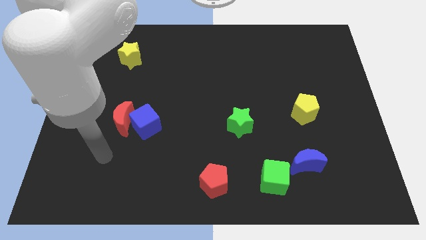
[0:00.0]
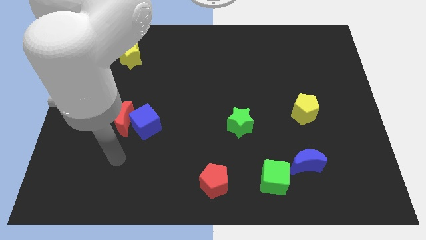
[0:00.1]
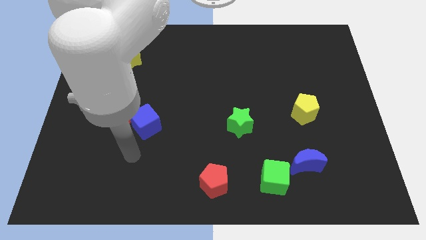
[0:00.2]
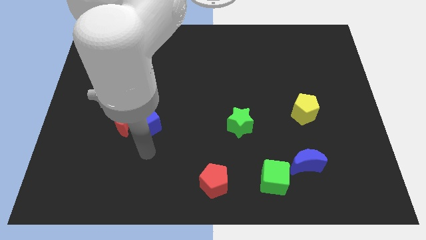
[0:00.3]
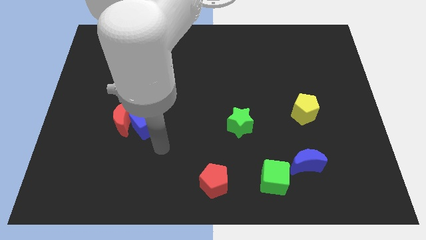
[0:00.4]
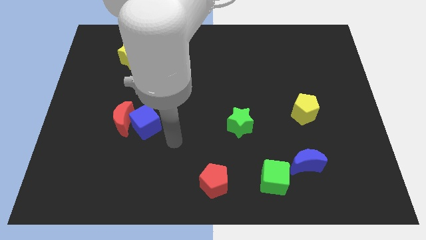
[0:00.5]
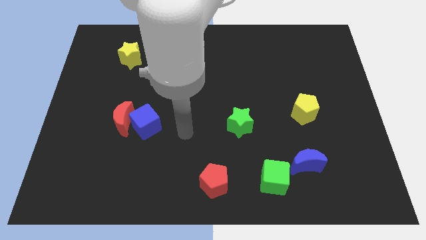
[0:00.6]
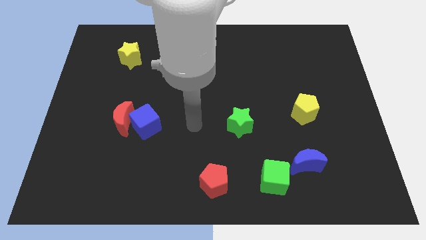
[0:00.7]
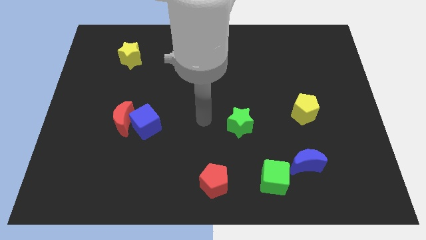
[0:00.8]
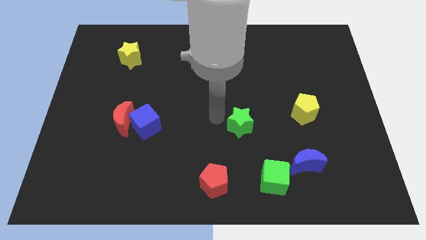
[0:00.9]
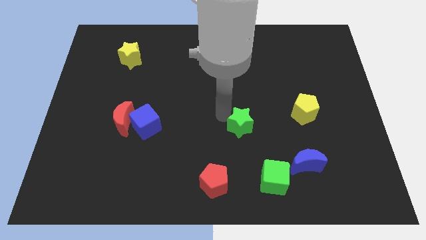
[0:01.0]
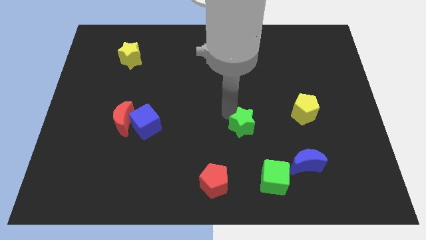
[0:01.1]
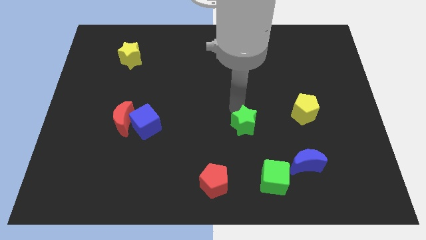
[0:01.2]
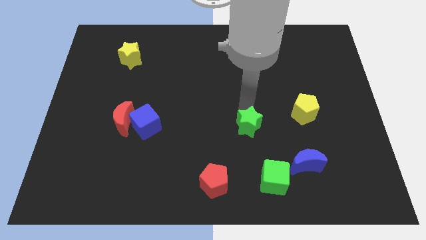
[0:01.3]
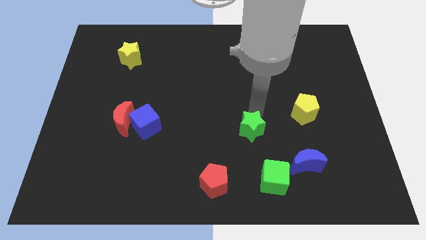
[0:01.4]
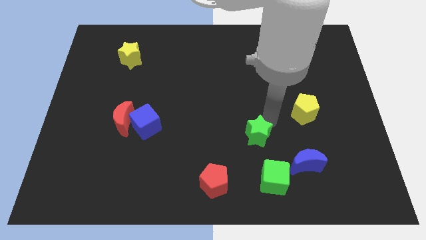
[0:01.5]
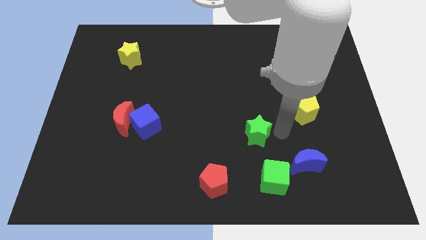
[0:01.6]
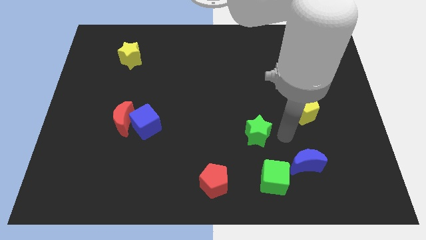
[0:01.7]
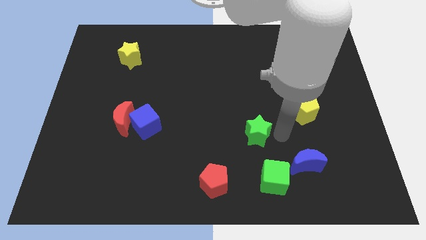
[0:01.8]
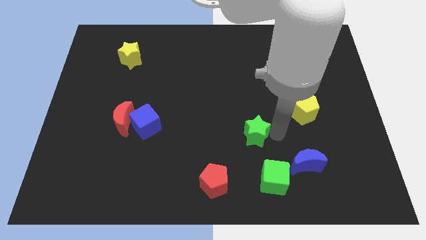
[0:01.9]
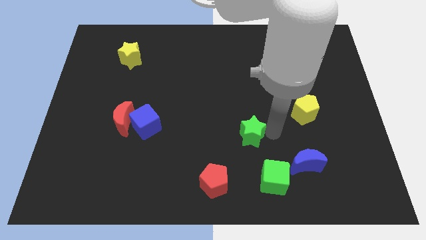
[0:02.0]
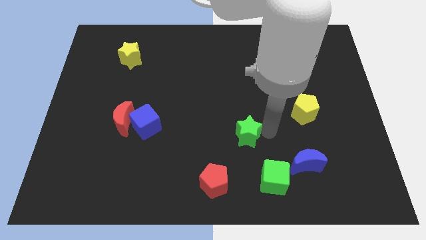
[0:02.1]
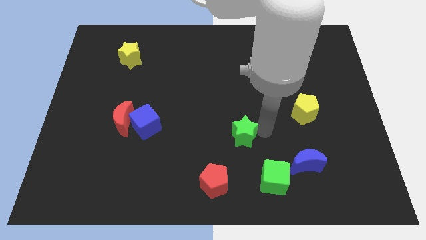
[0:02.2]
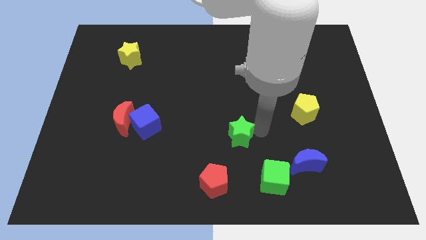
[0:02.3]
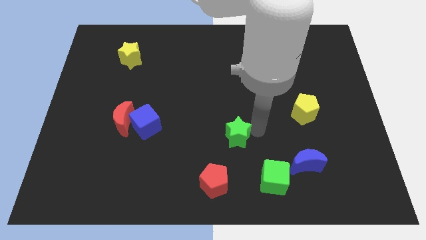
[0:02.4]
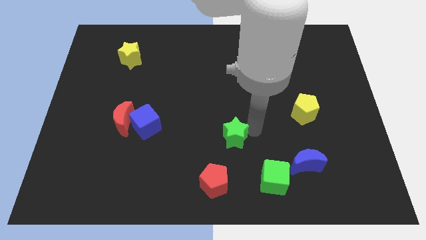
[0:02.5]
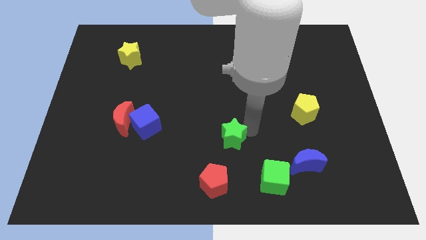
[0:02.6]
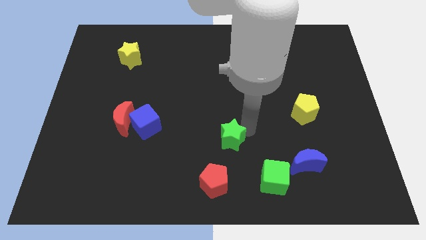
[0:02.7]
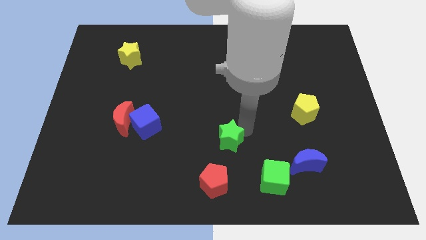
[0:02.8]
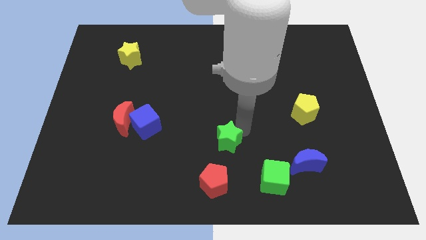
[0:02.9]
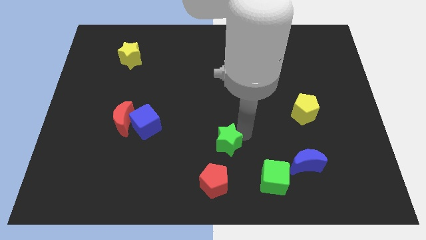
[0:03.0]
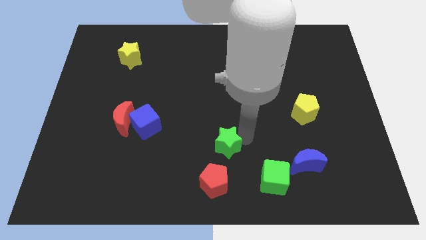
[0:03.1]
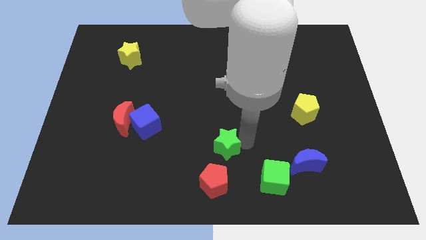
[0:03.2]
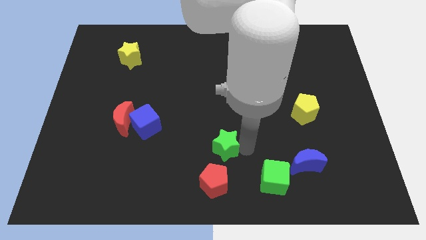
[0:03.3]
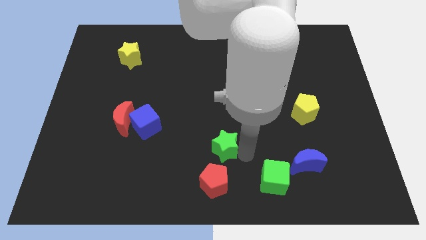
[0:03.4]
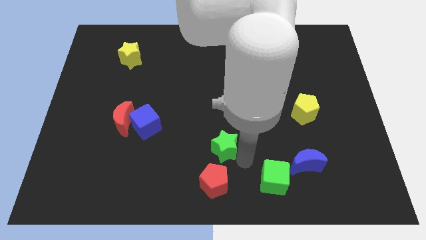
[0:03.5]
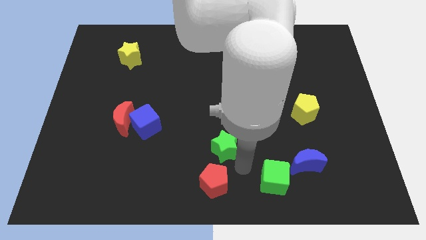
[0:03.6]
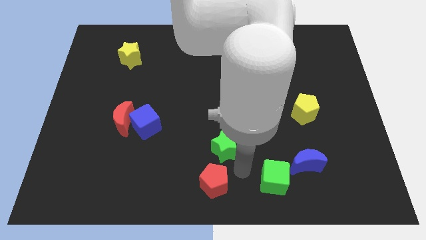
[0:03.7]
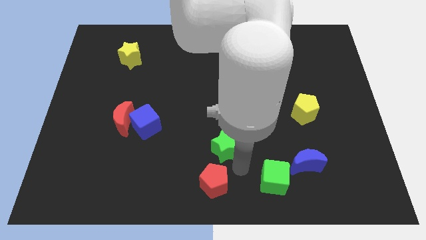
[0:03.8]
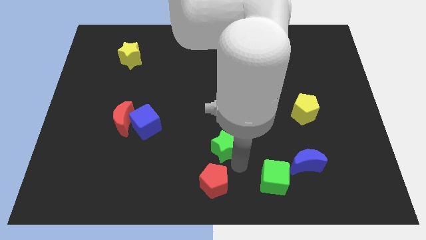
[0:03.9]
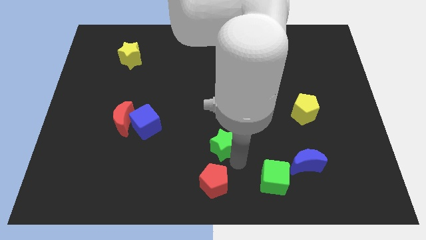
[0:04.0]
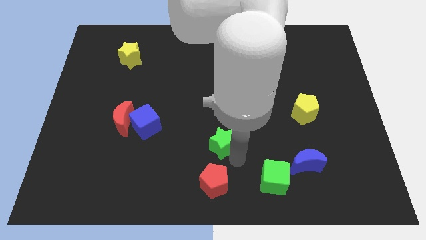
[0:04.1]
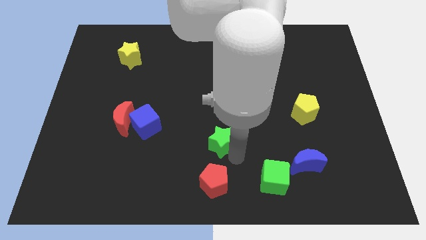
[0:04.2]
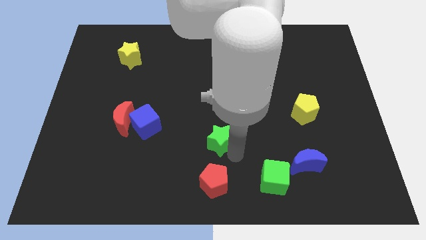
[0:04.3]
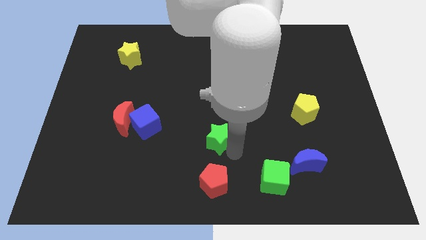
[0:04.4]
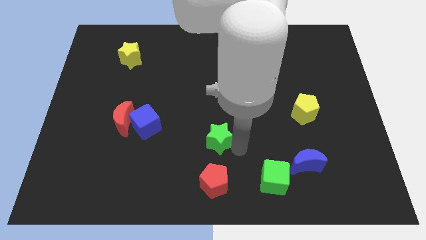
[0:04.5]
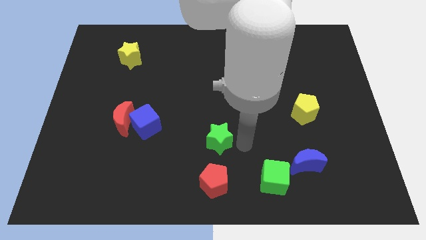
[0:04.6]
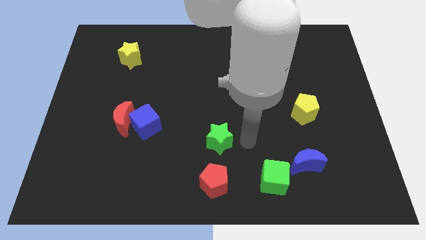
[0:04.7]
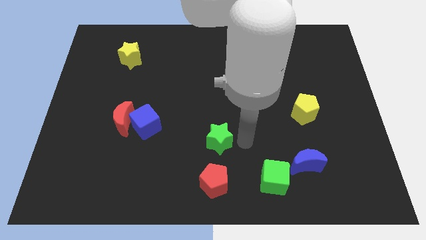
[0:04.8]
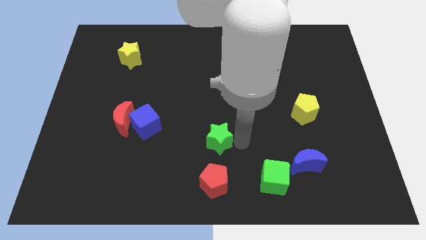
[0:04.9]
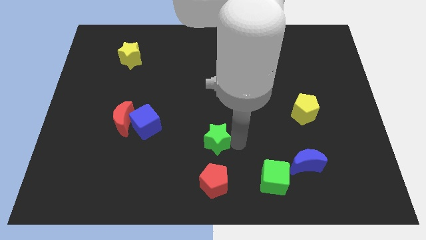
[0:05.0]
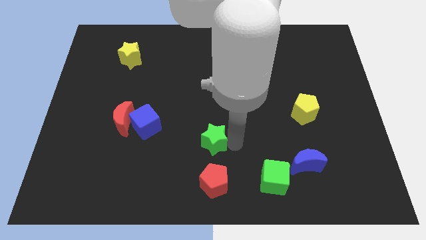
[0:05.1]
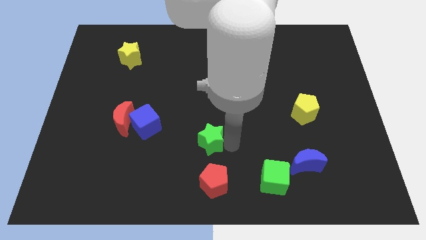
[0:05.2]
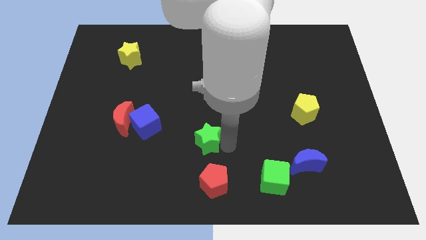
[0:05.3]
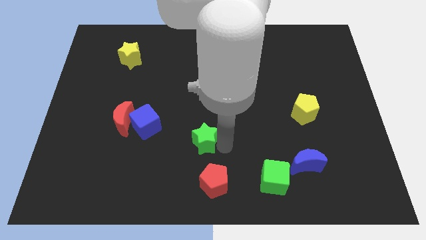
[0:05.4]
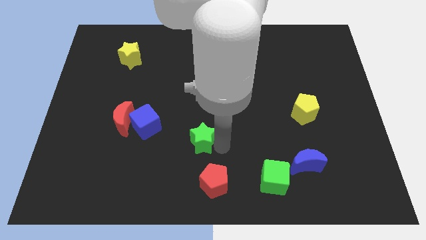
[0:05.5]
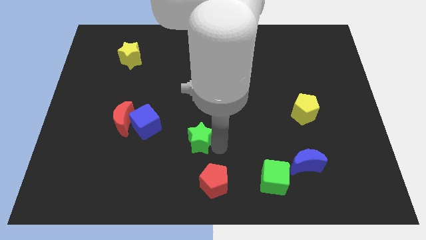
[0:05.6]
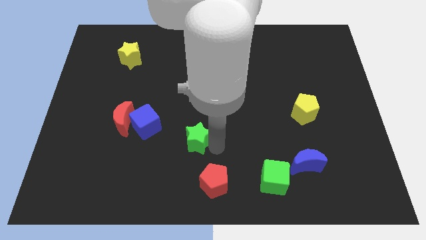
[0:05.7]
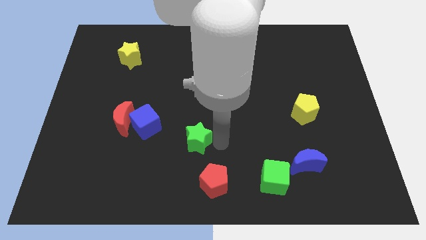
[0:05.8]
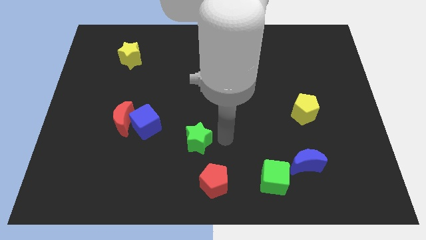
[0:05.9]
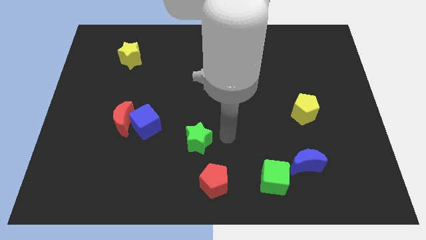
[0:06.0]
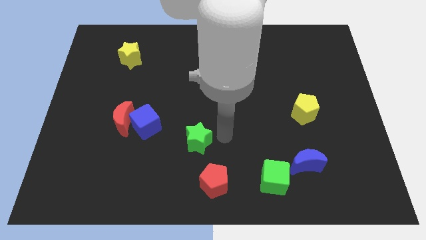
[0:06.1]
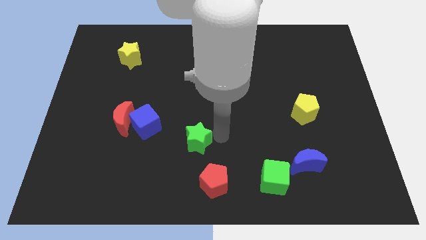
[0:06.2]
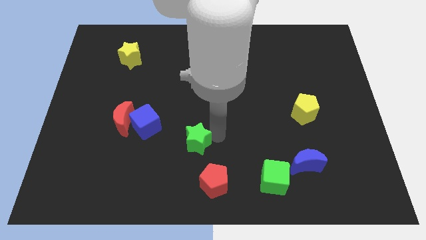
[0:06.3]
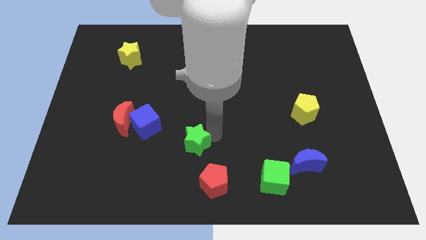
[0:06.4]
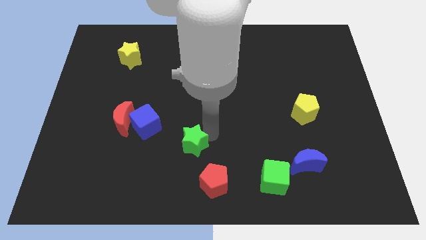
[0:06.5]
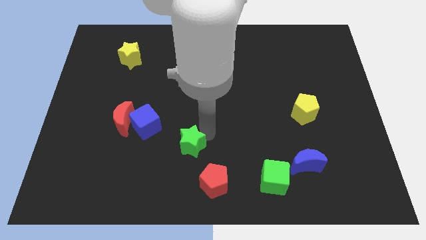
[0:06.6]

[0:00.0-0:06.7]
push the green star to the bottom right of the blue cube
